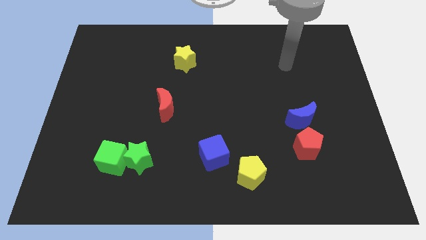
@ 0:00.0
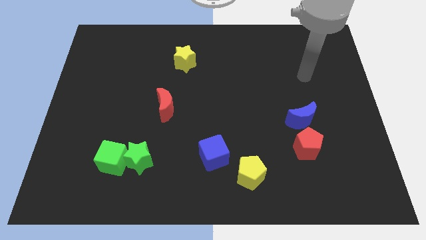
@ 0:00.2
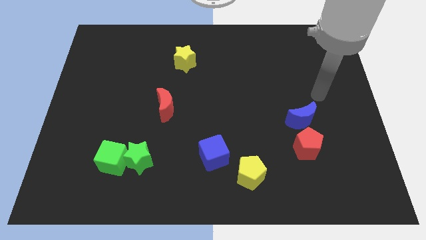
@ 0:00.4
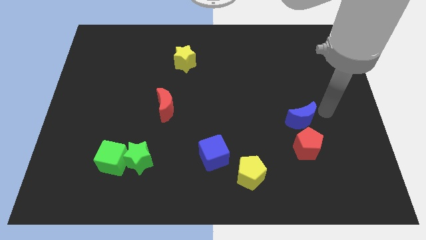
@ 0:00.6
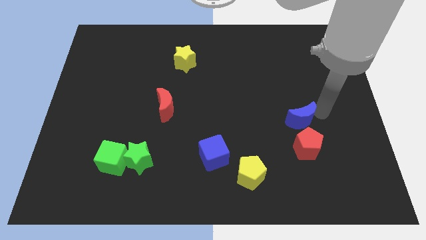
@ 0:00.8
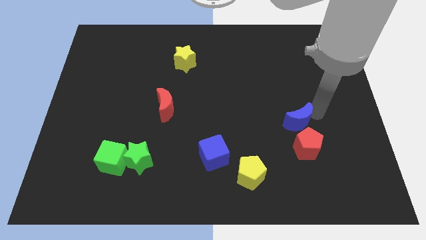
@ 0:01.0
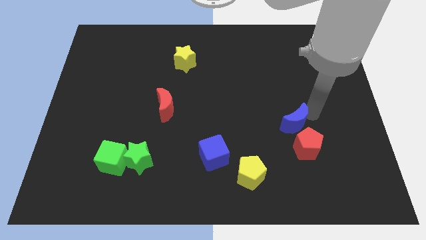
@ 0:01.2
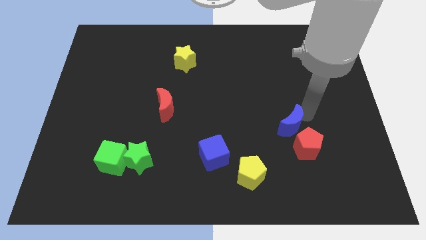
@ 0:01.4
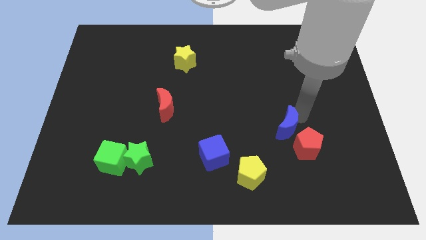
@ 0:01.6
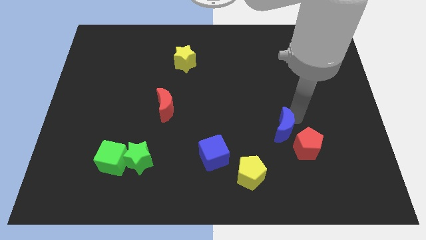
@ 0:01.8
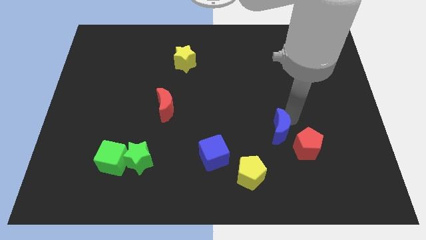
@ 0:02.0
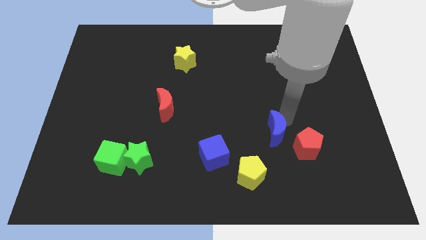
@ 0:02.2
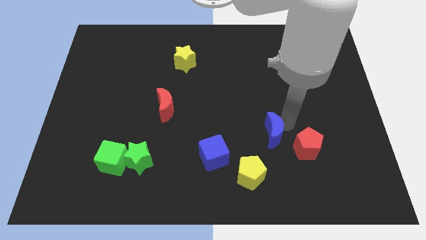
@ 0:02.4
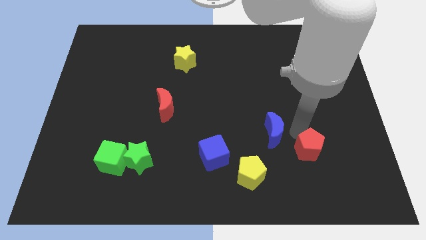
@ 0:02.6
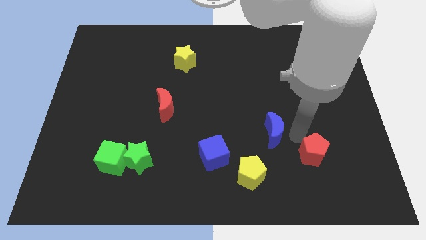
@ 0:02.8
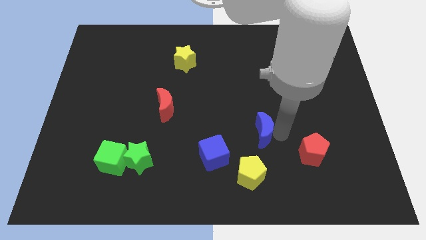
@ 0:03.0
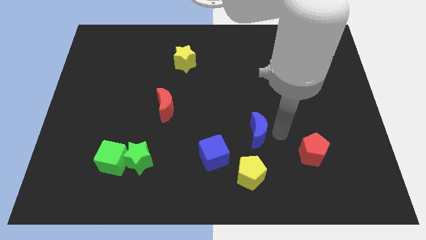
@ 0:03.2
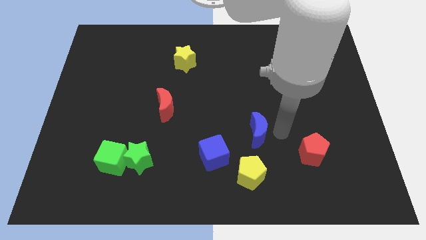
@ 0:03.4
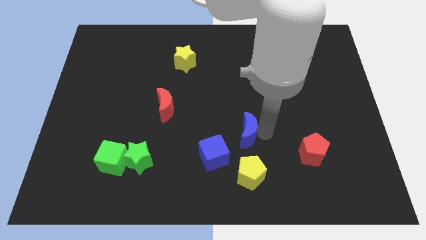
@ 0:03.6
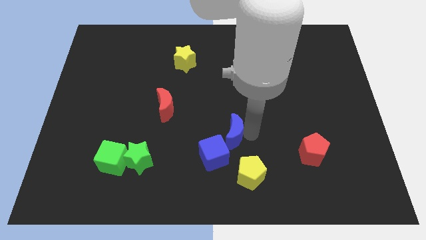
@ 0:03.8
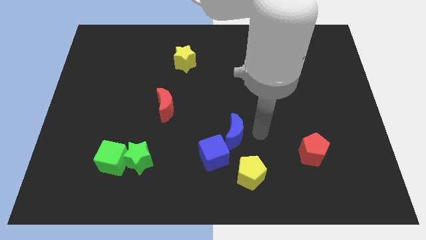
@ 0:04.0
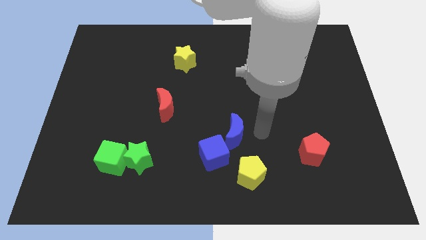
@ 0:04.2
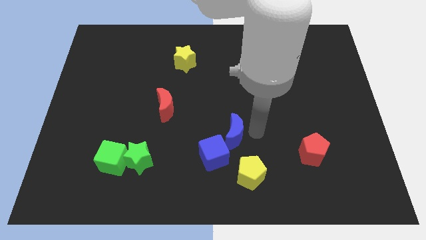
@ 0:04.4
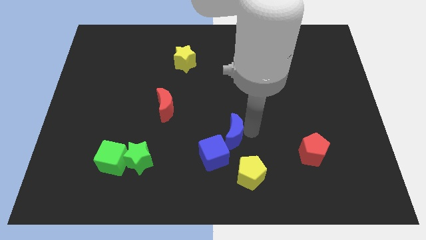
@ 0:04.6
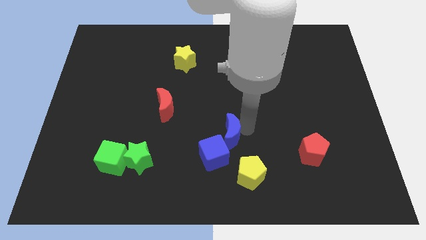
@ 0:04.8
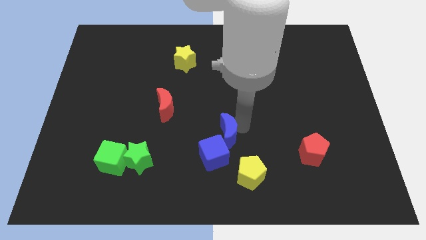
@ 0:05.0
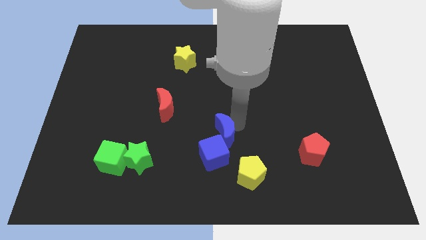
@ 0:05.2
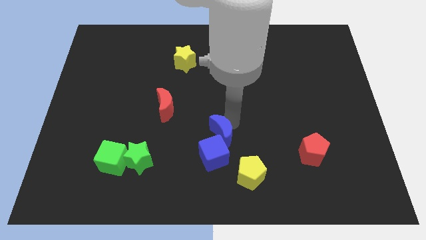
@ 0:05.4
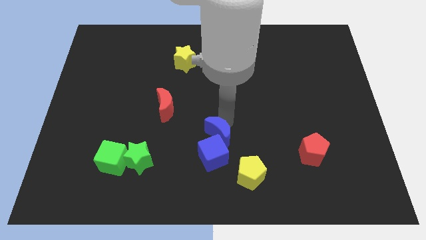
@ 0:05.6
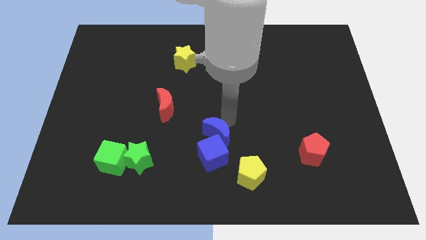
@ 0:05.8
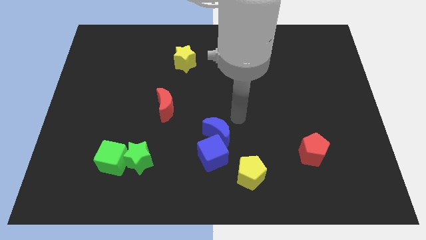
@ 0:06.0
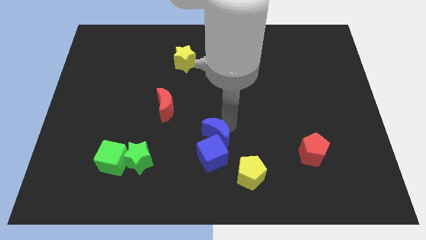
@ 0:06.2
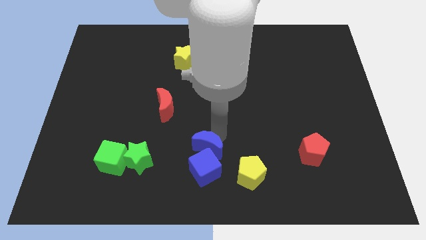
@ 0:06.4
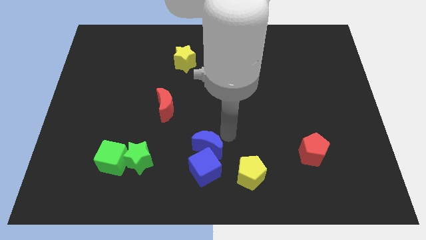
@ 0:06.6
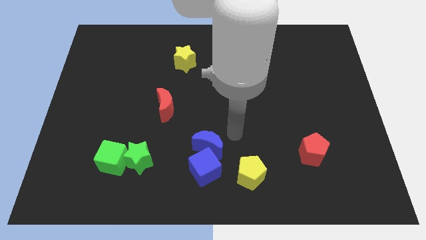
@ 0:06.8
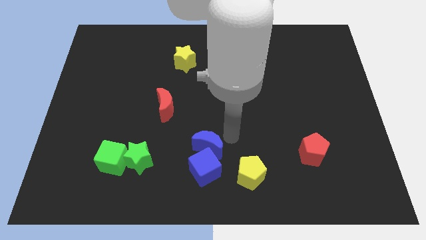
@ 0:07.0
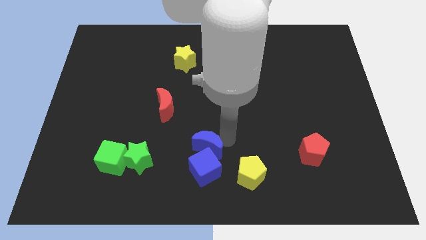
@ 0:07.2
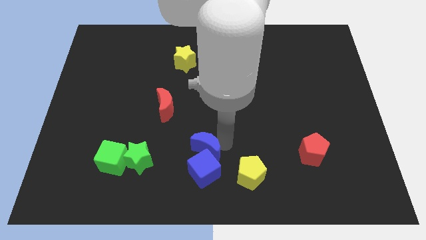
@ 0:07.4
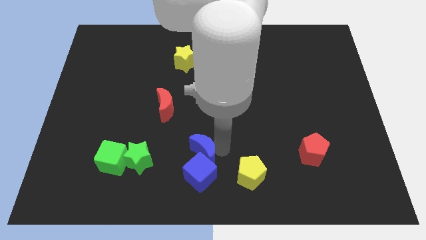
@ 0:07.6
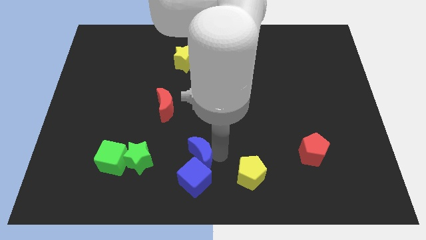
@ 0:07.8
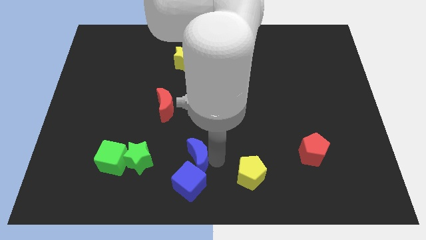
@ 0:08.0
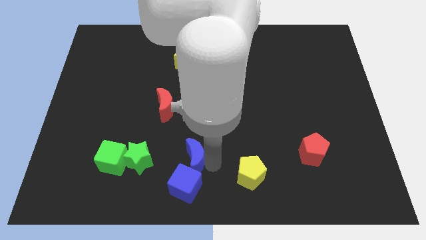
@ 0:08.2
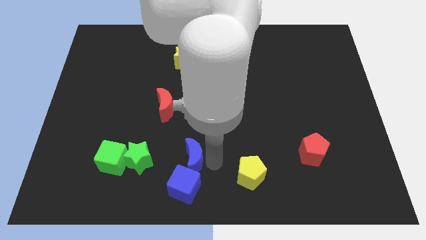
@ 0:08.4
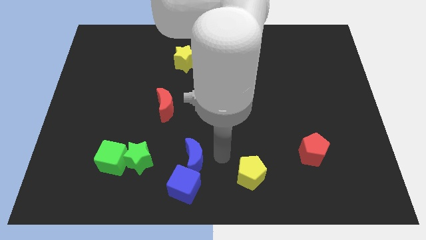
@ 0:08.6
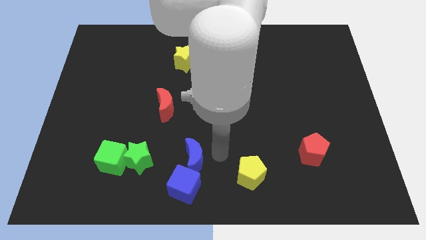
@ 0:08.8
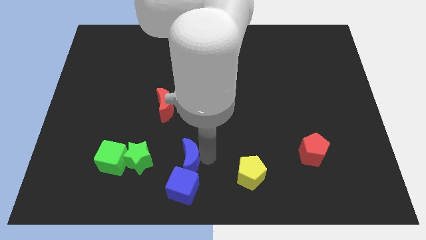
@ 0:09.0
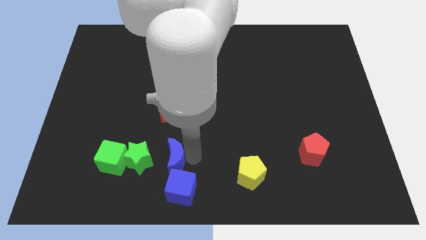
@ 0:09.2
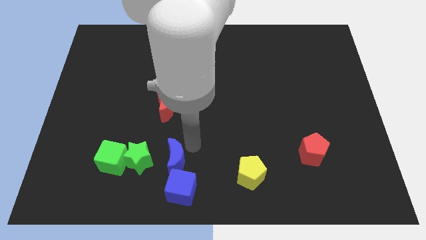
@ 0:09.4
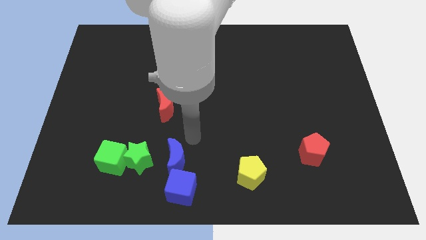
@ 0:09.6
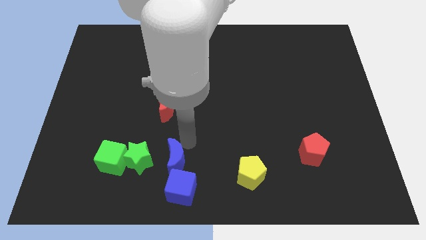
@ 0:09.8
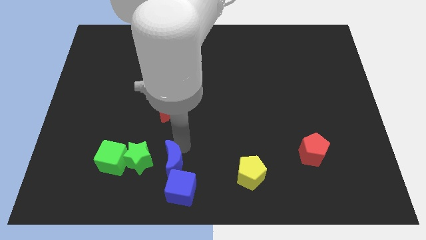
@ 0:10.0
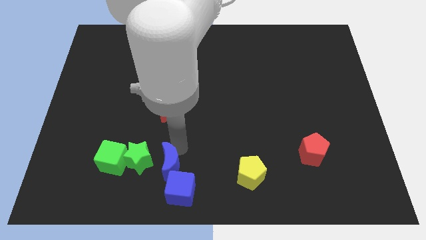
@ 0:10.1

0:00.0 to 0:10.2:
move the blue moon to the bottom right side of the green star

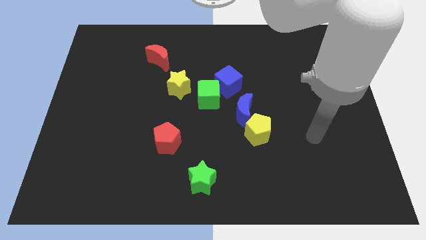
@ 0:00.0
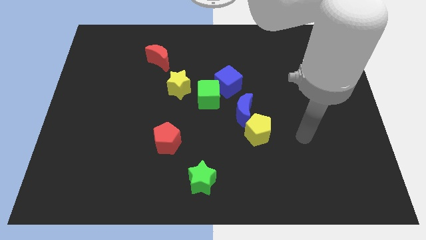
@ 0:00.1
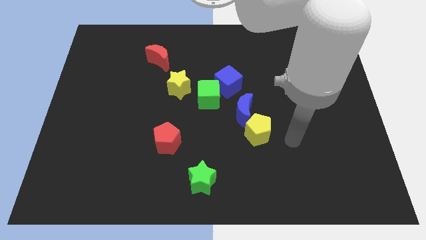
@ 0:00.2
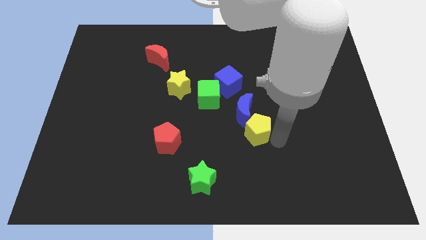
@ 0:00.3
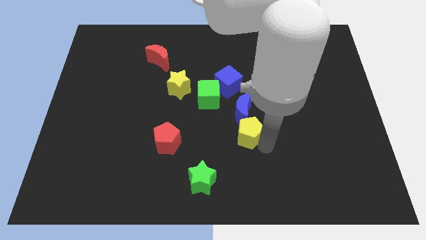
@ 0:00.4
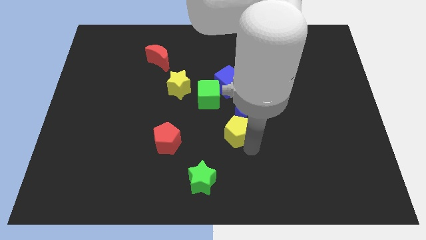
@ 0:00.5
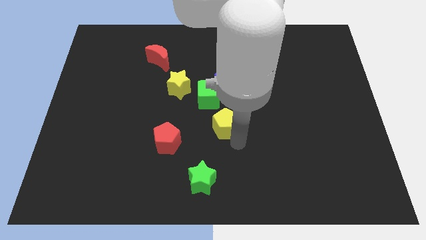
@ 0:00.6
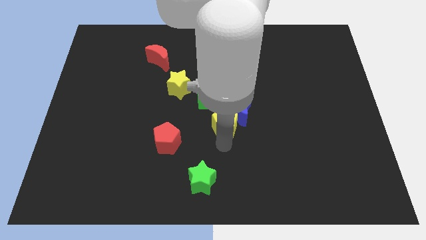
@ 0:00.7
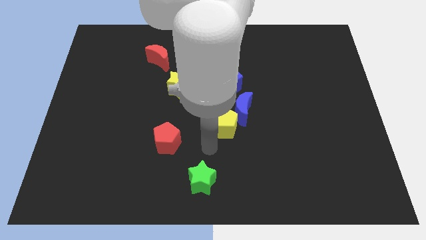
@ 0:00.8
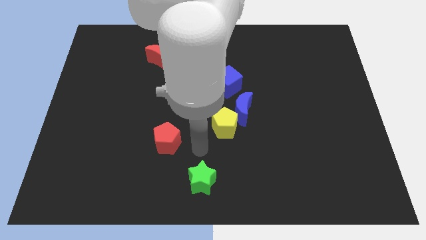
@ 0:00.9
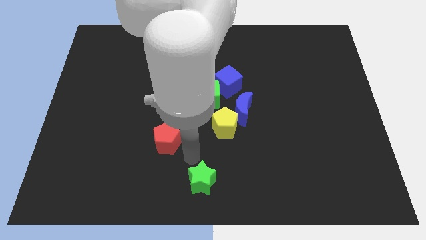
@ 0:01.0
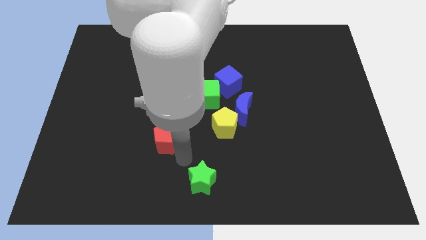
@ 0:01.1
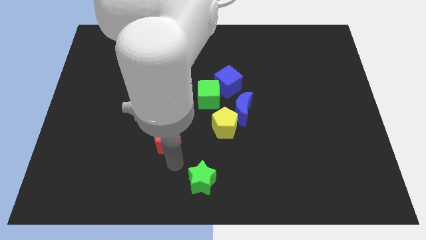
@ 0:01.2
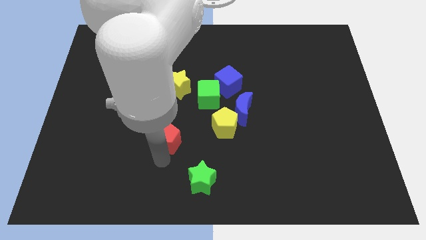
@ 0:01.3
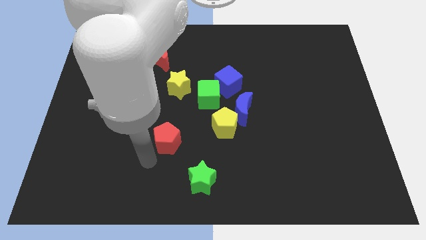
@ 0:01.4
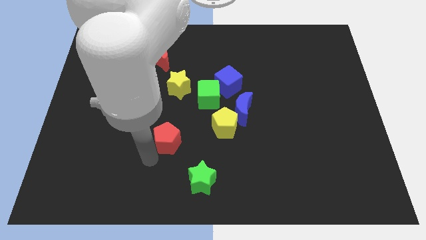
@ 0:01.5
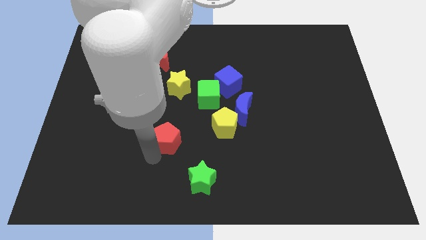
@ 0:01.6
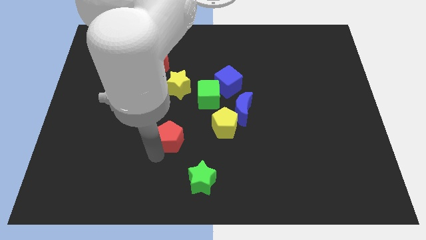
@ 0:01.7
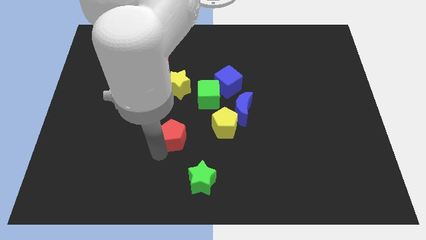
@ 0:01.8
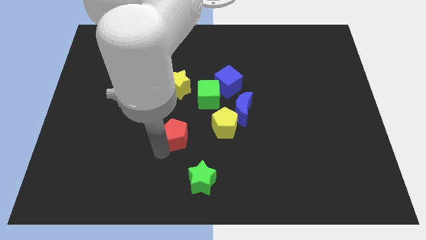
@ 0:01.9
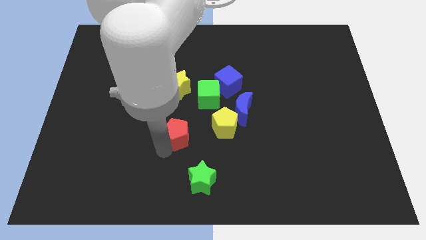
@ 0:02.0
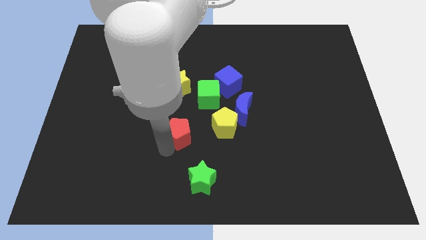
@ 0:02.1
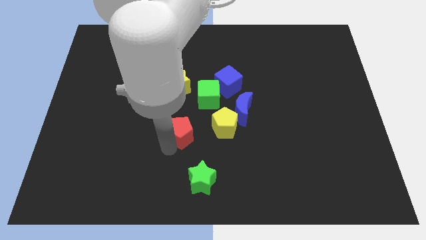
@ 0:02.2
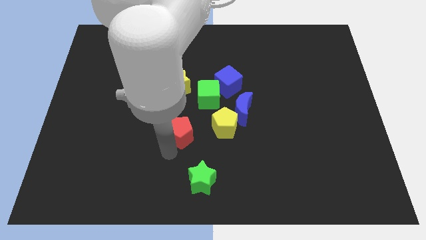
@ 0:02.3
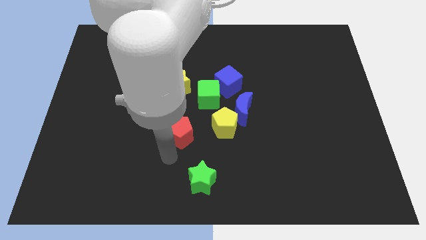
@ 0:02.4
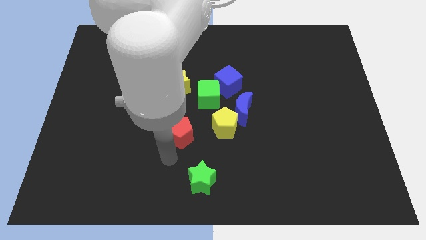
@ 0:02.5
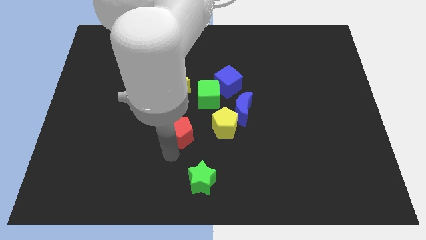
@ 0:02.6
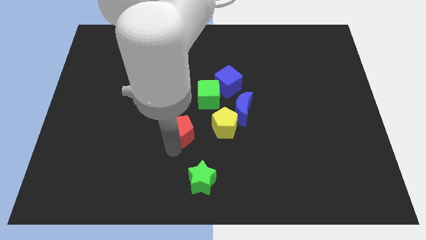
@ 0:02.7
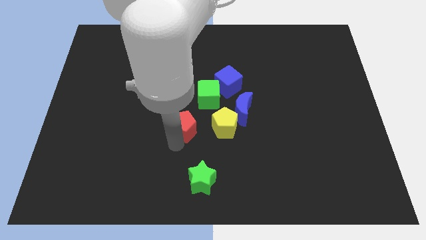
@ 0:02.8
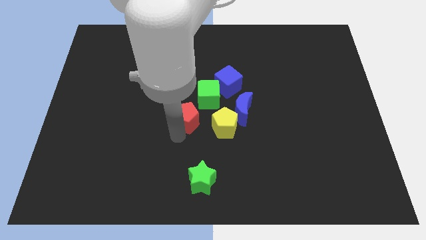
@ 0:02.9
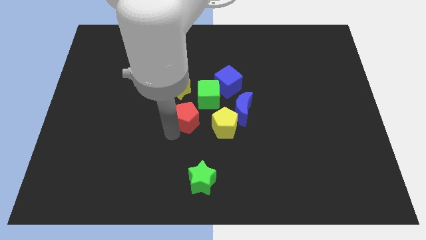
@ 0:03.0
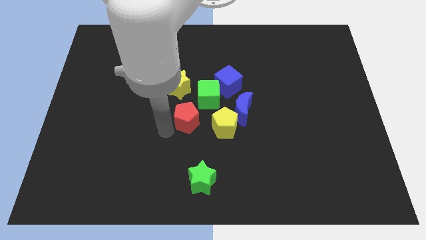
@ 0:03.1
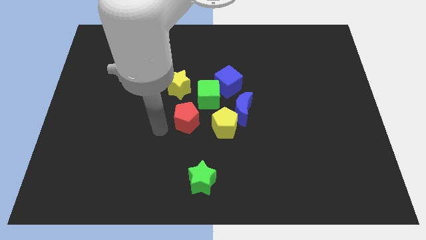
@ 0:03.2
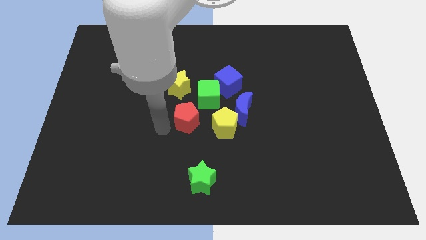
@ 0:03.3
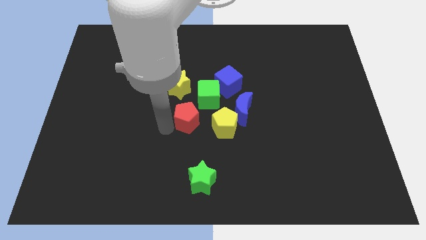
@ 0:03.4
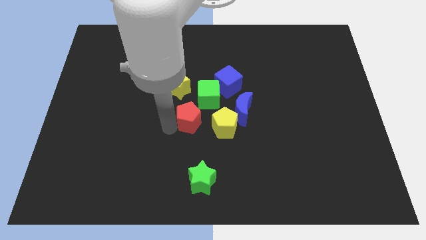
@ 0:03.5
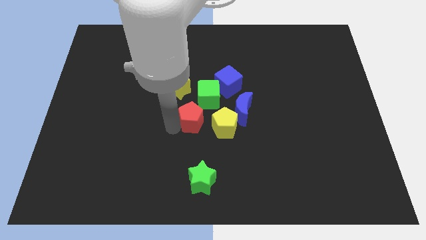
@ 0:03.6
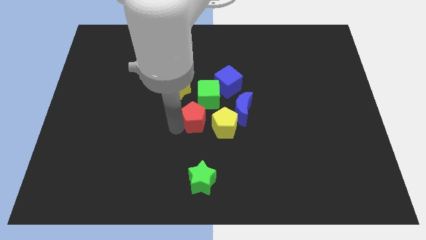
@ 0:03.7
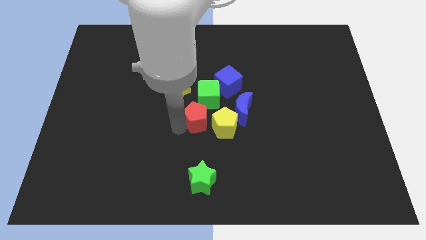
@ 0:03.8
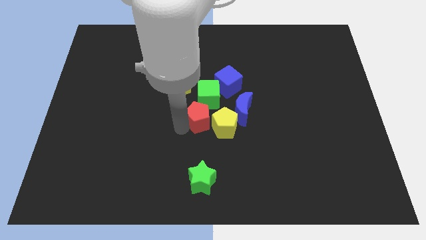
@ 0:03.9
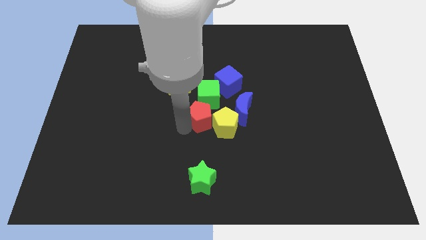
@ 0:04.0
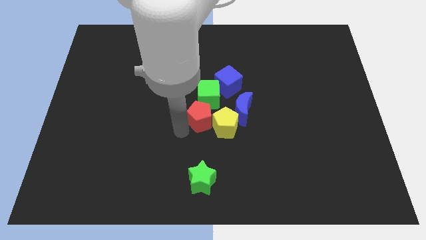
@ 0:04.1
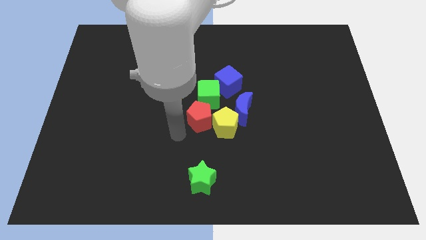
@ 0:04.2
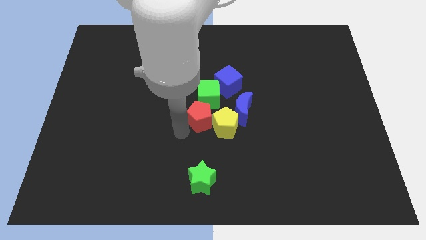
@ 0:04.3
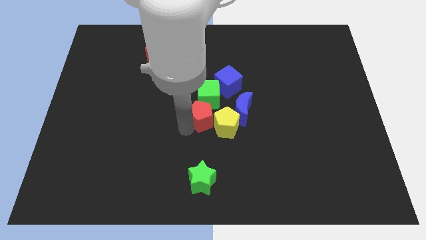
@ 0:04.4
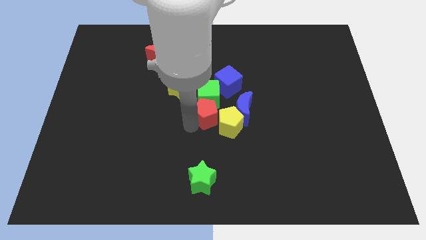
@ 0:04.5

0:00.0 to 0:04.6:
move the red pentagon to the top left side of the yellow pentagon
